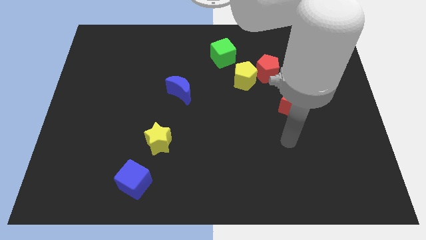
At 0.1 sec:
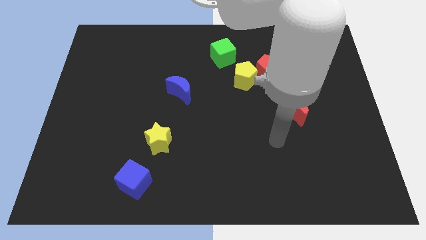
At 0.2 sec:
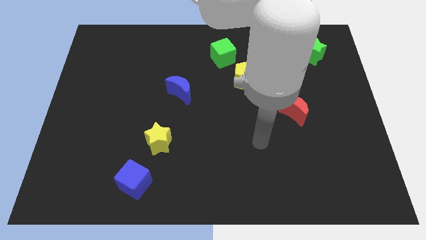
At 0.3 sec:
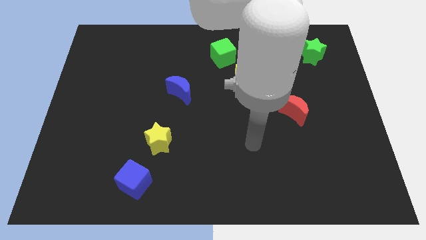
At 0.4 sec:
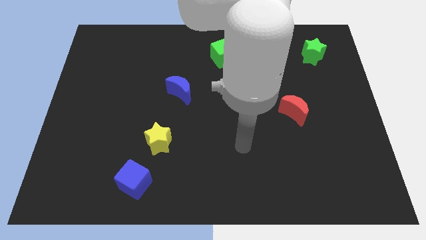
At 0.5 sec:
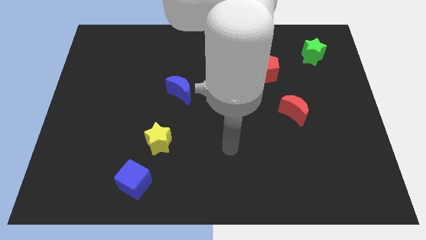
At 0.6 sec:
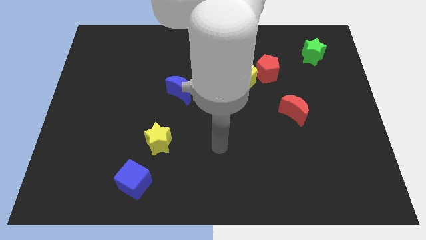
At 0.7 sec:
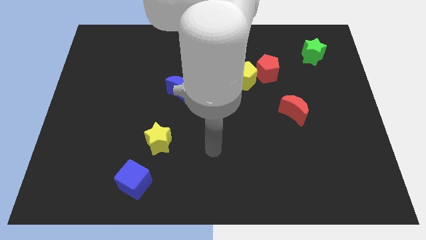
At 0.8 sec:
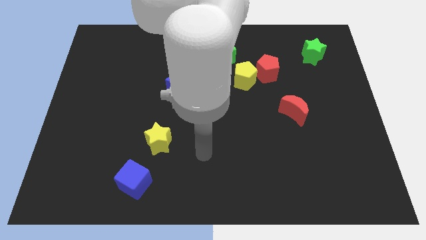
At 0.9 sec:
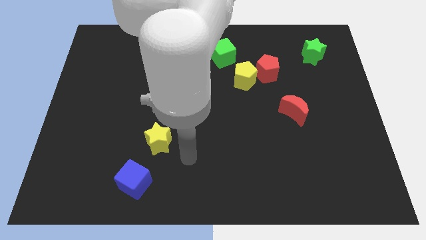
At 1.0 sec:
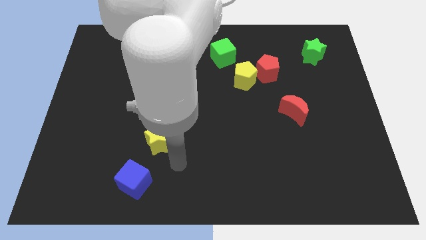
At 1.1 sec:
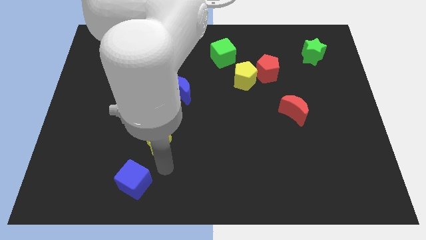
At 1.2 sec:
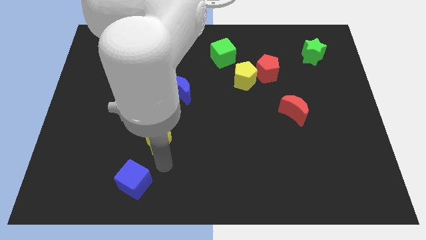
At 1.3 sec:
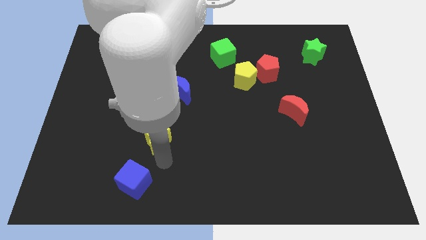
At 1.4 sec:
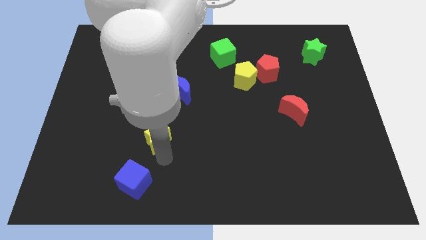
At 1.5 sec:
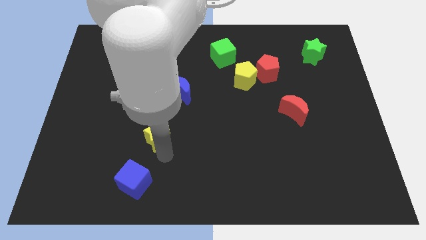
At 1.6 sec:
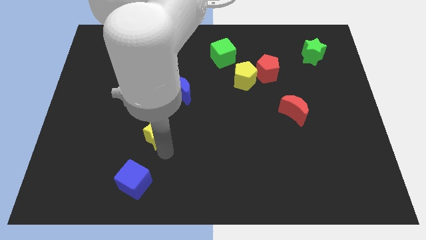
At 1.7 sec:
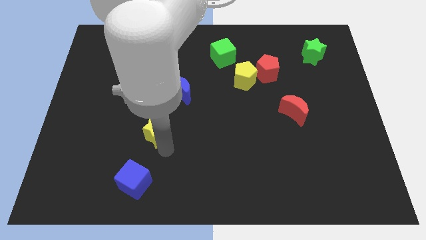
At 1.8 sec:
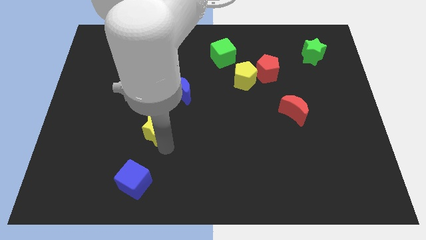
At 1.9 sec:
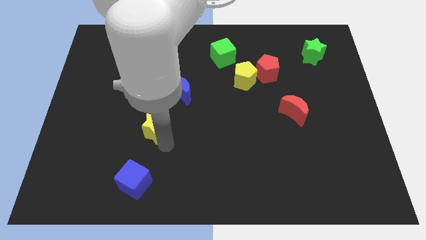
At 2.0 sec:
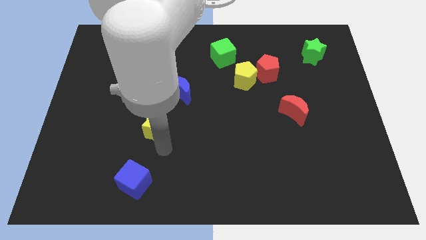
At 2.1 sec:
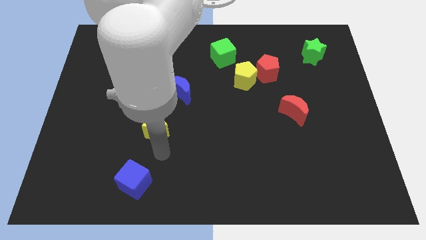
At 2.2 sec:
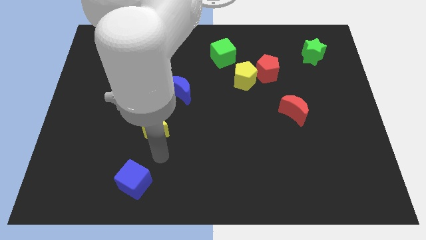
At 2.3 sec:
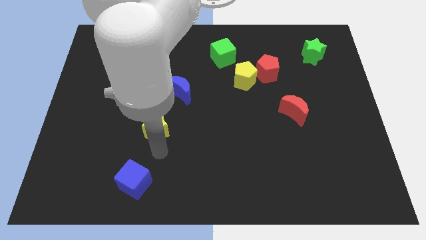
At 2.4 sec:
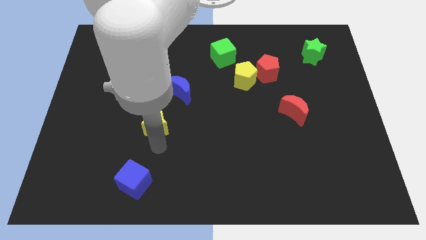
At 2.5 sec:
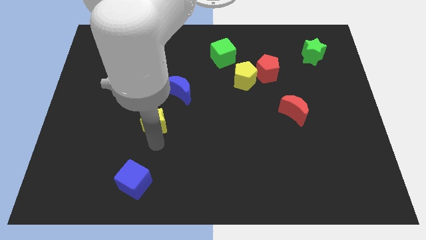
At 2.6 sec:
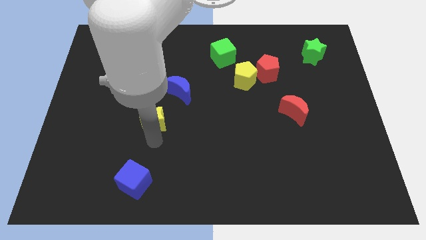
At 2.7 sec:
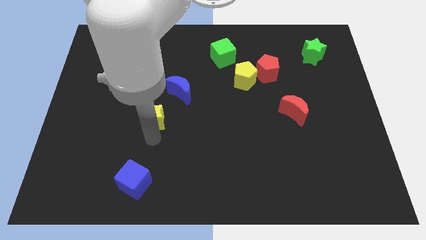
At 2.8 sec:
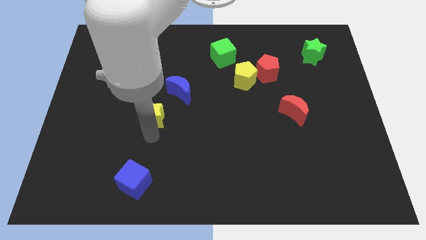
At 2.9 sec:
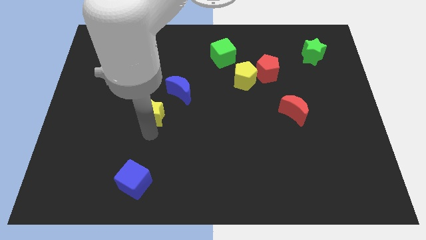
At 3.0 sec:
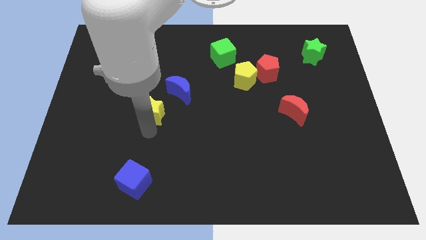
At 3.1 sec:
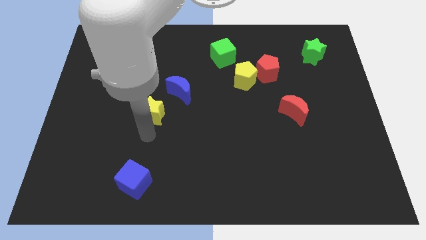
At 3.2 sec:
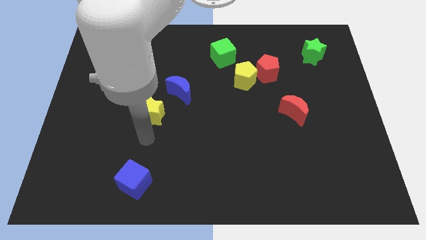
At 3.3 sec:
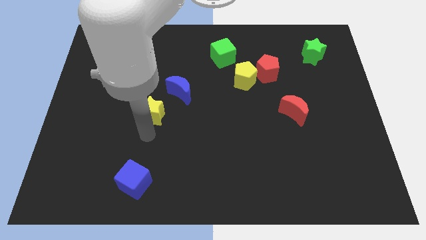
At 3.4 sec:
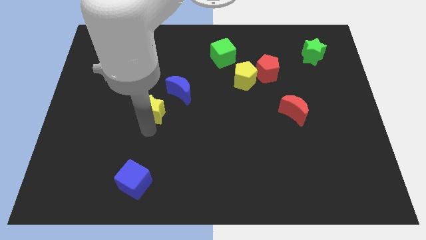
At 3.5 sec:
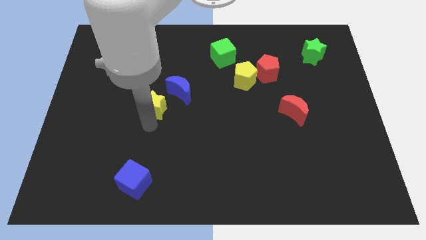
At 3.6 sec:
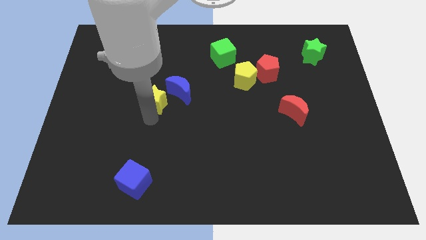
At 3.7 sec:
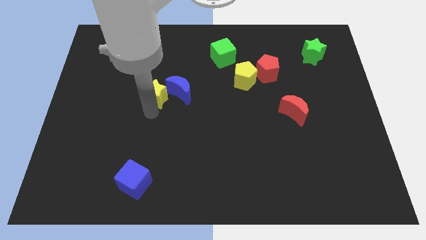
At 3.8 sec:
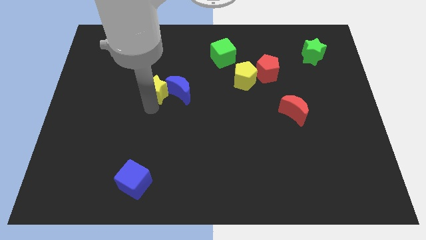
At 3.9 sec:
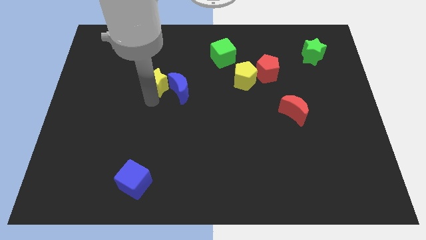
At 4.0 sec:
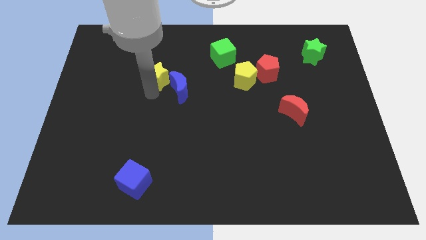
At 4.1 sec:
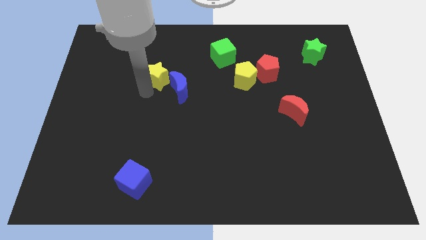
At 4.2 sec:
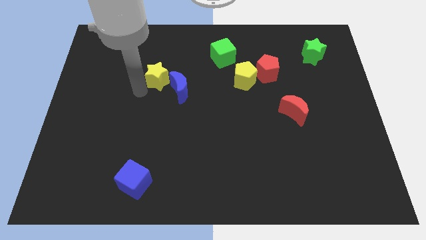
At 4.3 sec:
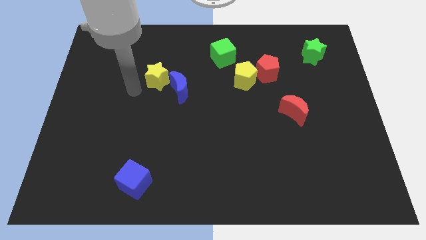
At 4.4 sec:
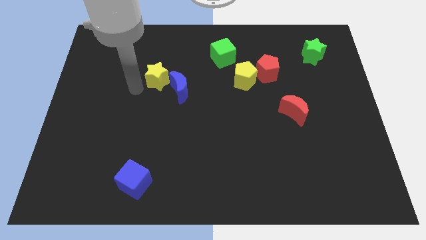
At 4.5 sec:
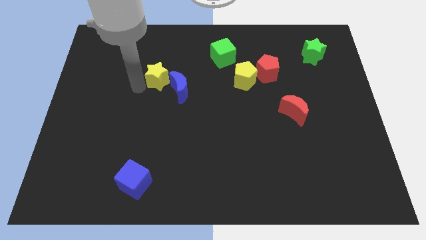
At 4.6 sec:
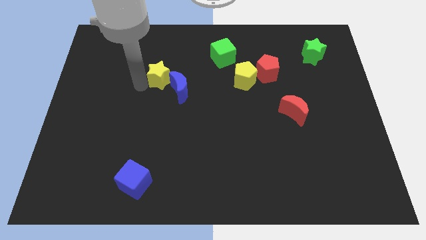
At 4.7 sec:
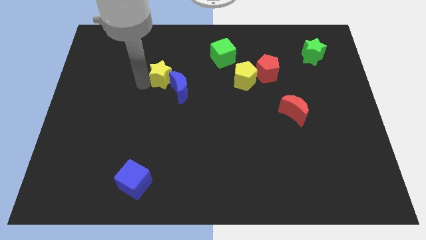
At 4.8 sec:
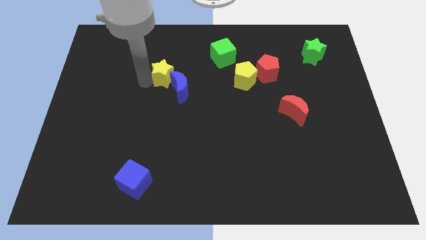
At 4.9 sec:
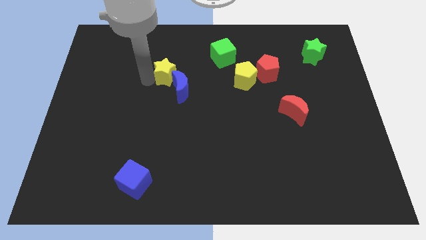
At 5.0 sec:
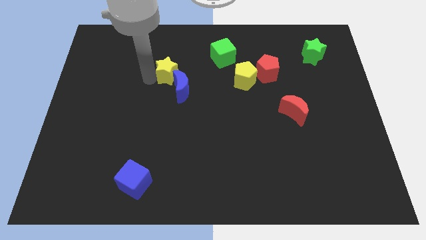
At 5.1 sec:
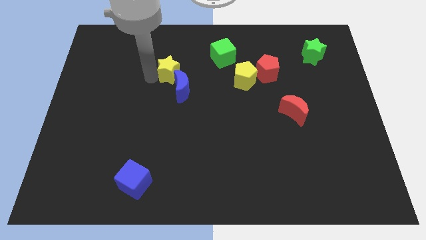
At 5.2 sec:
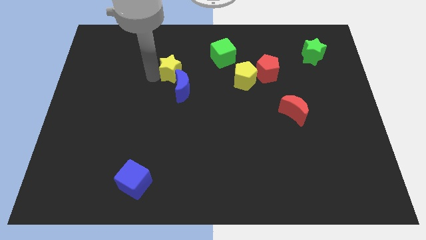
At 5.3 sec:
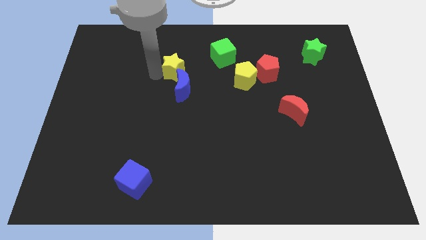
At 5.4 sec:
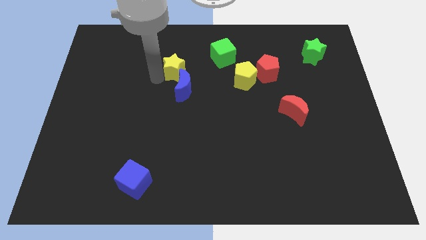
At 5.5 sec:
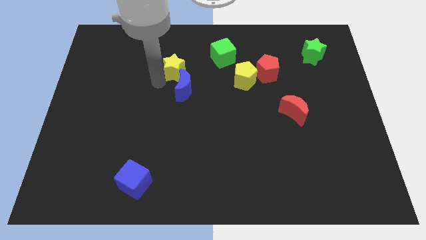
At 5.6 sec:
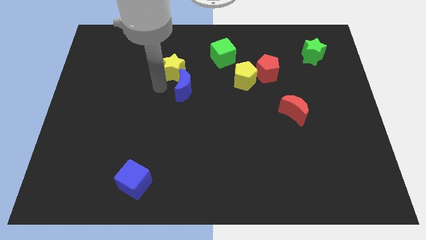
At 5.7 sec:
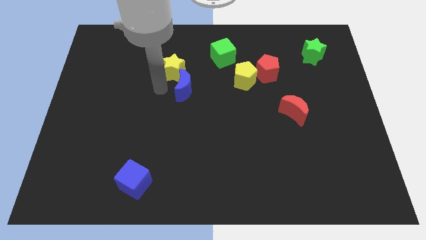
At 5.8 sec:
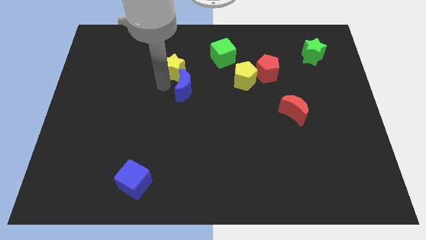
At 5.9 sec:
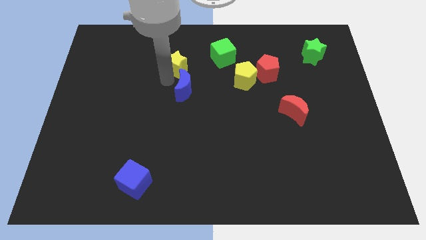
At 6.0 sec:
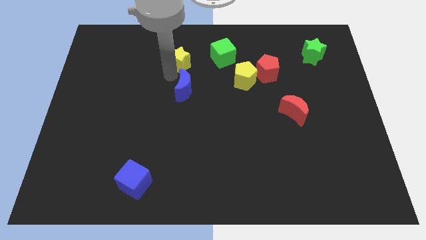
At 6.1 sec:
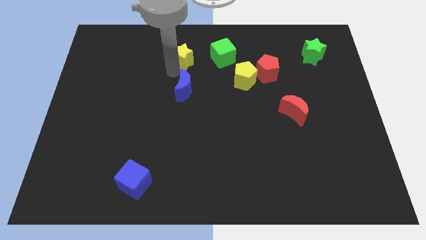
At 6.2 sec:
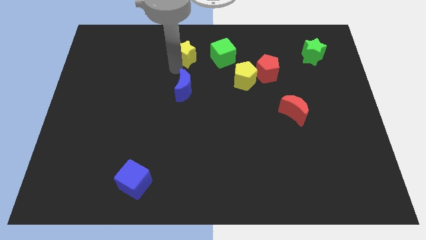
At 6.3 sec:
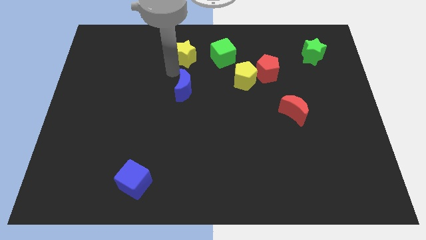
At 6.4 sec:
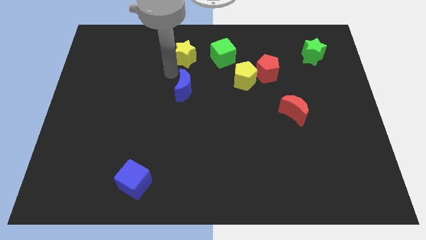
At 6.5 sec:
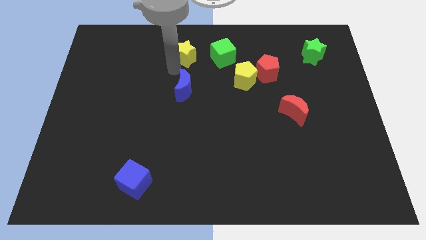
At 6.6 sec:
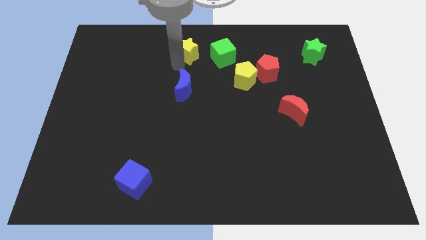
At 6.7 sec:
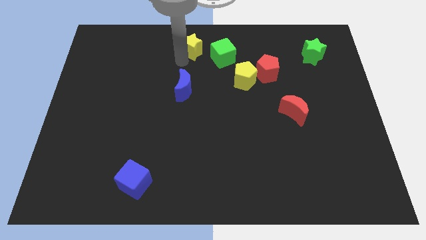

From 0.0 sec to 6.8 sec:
move the yellow star to the towards your base

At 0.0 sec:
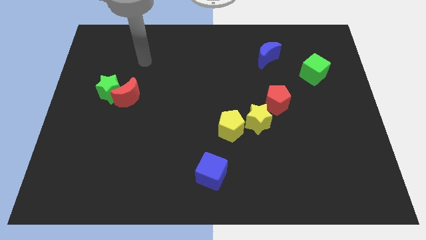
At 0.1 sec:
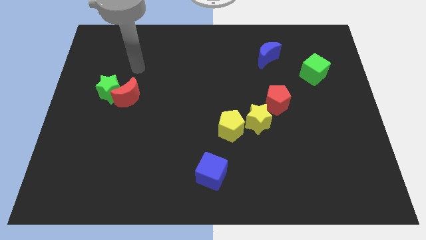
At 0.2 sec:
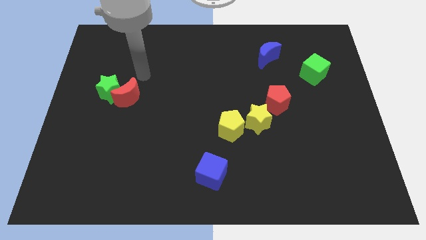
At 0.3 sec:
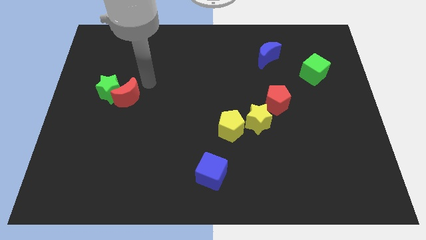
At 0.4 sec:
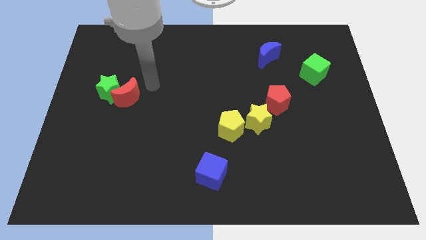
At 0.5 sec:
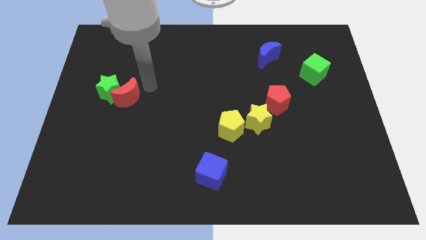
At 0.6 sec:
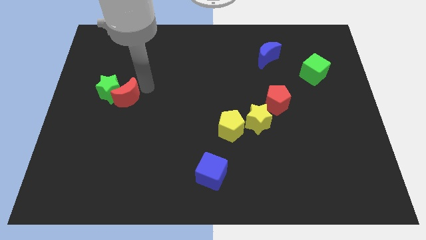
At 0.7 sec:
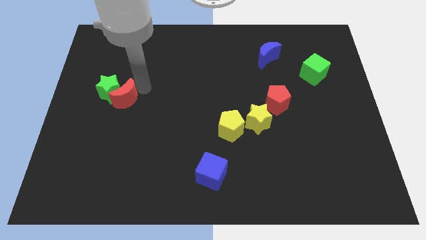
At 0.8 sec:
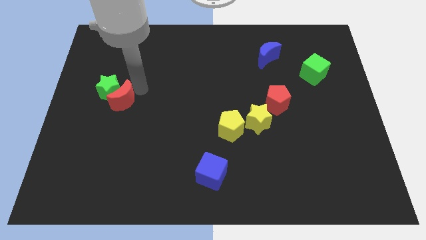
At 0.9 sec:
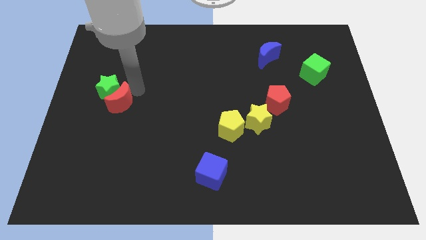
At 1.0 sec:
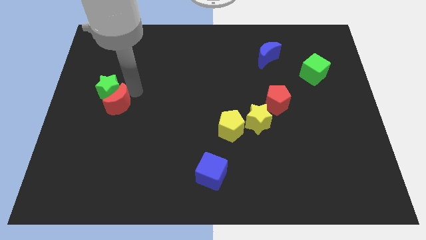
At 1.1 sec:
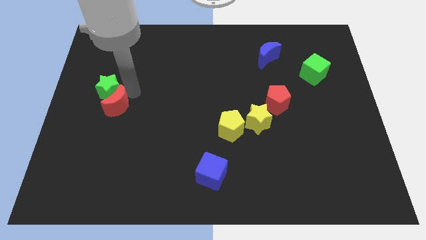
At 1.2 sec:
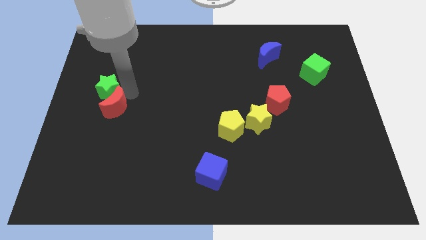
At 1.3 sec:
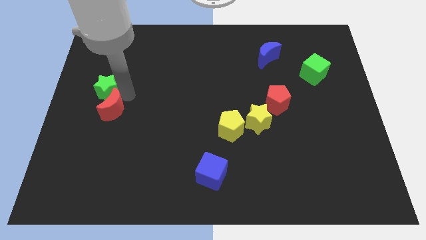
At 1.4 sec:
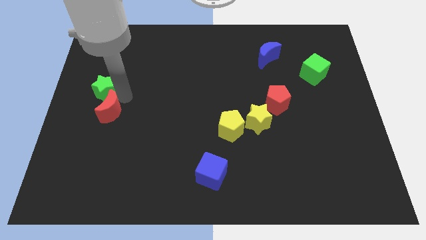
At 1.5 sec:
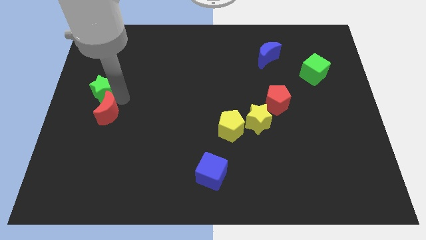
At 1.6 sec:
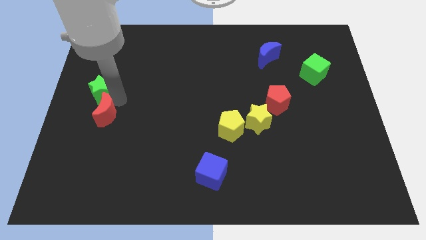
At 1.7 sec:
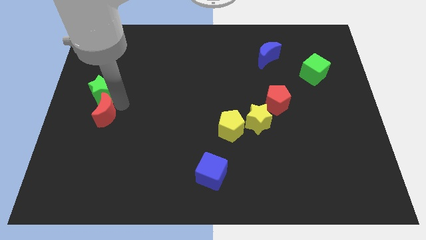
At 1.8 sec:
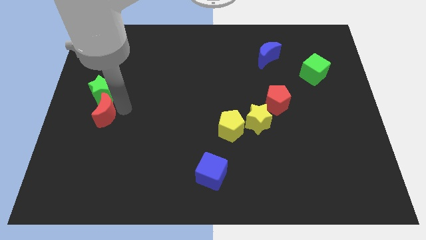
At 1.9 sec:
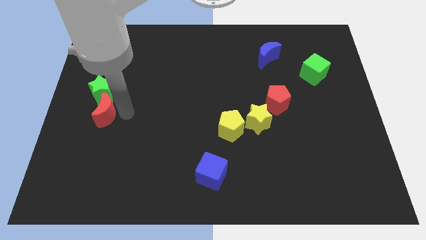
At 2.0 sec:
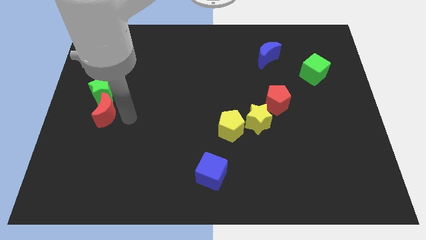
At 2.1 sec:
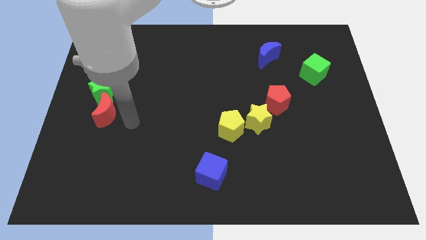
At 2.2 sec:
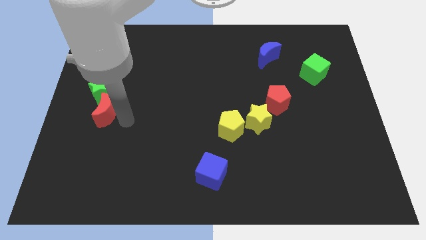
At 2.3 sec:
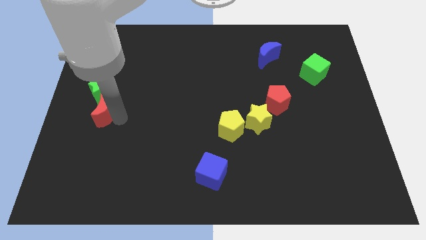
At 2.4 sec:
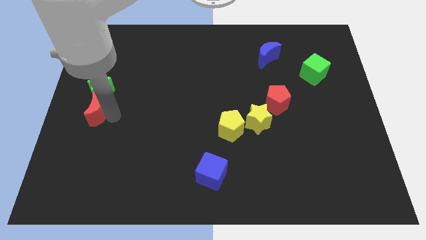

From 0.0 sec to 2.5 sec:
slide the red moon to the left side of the board
